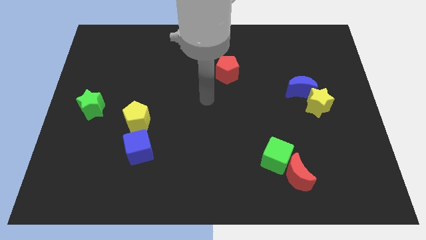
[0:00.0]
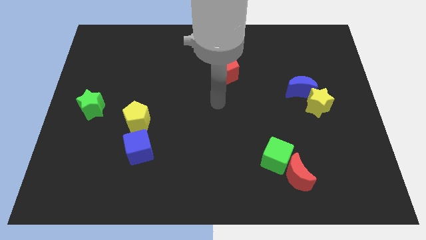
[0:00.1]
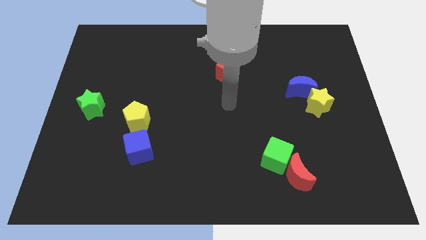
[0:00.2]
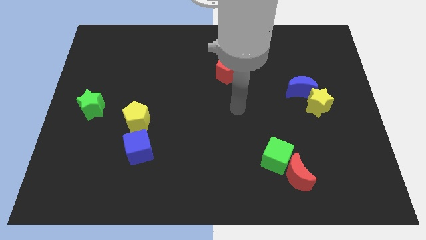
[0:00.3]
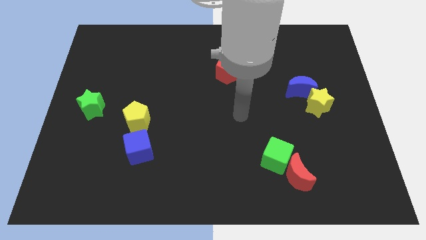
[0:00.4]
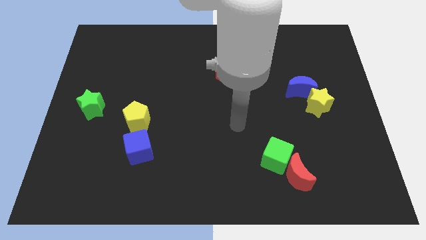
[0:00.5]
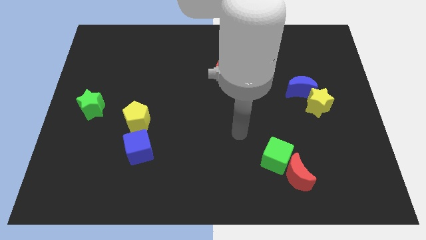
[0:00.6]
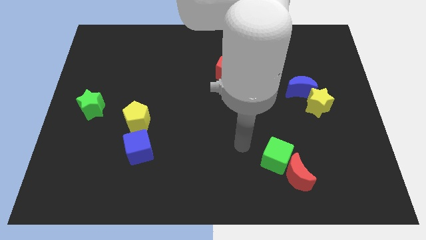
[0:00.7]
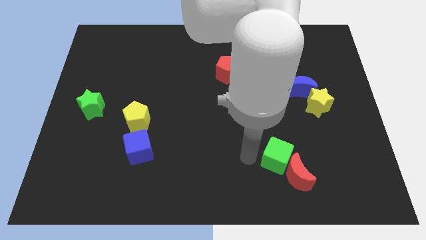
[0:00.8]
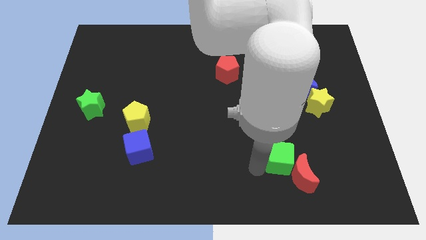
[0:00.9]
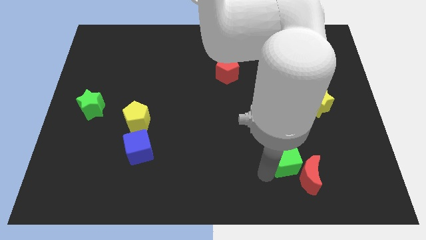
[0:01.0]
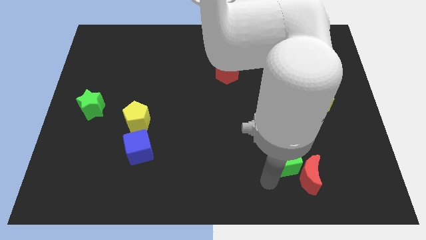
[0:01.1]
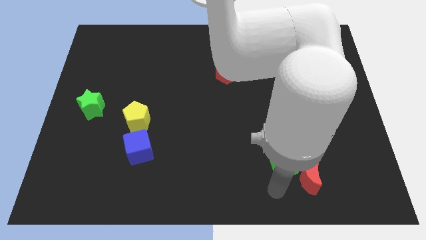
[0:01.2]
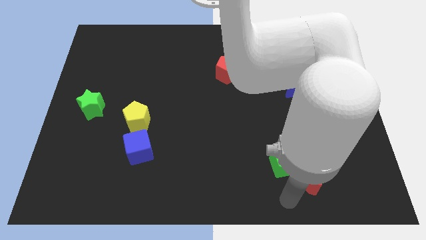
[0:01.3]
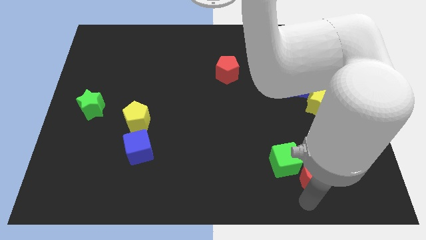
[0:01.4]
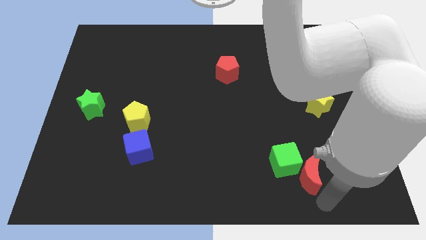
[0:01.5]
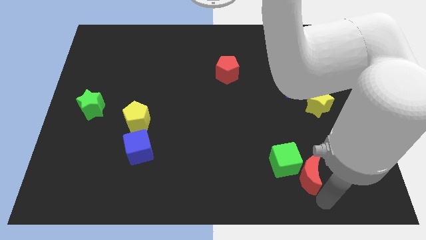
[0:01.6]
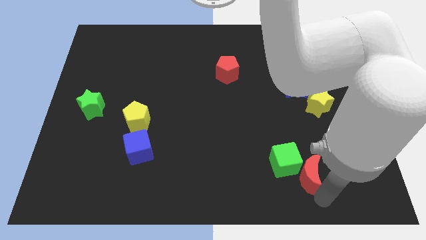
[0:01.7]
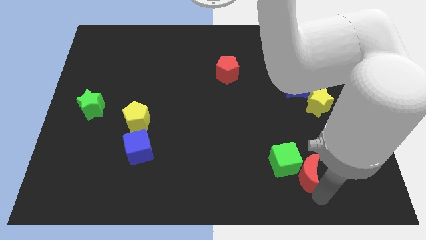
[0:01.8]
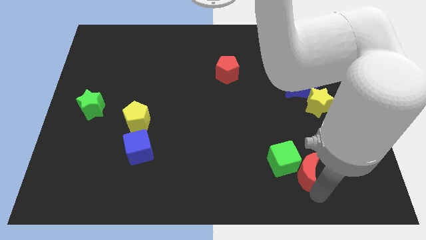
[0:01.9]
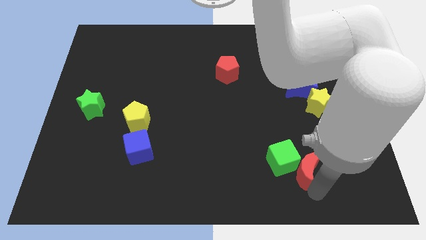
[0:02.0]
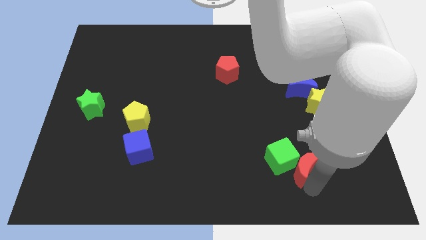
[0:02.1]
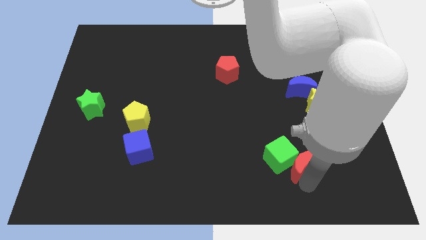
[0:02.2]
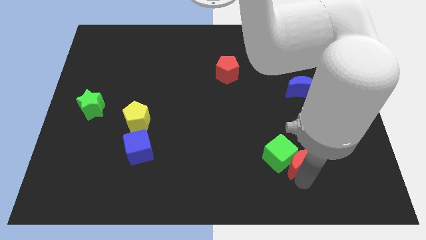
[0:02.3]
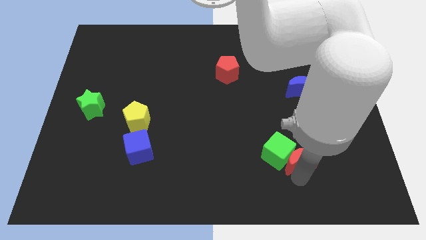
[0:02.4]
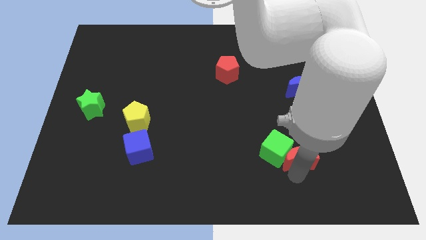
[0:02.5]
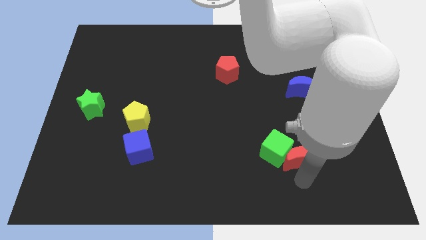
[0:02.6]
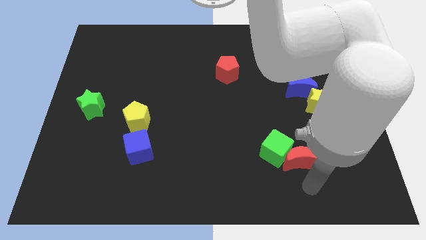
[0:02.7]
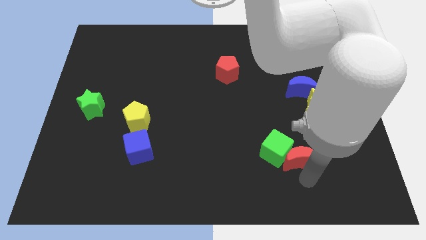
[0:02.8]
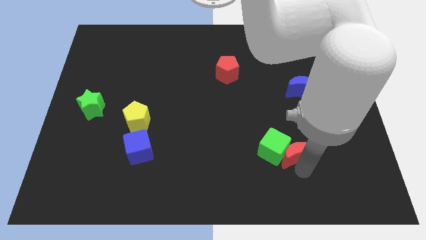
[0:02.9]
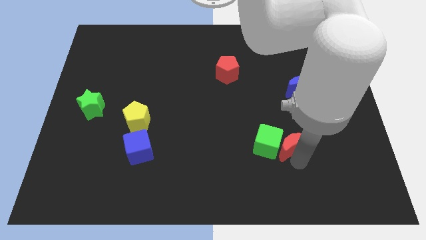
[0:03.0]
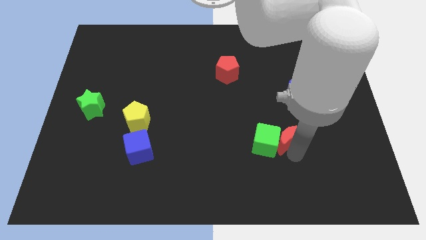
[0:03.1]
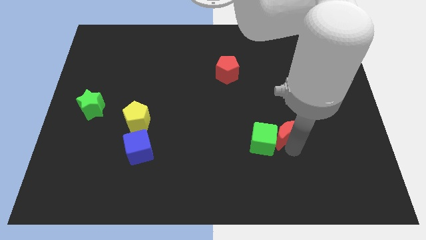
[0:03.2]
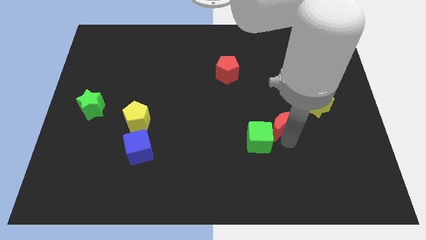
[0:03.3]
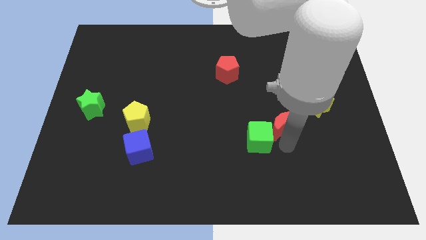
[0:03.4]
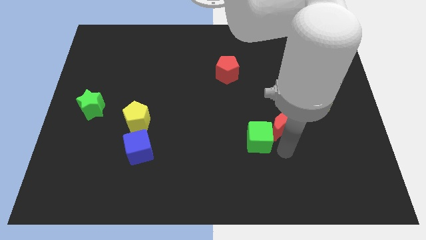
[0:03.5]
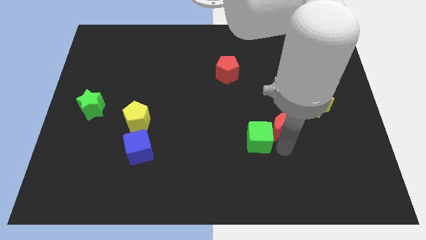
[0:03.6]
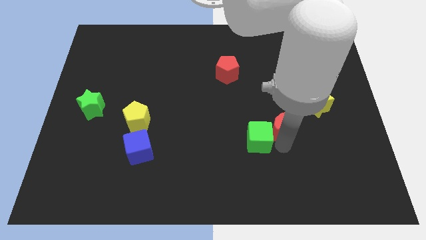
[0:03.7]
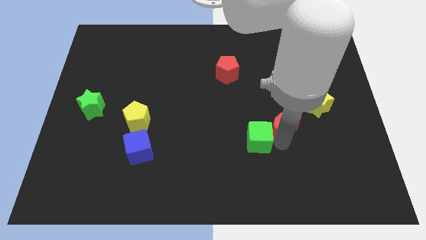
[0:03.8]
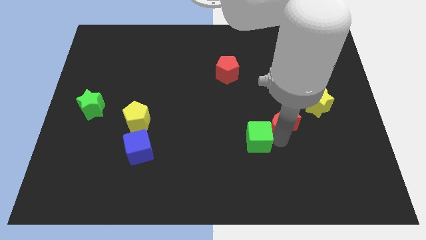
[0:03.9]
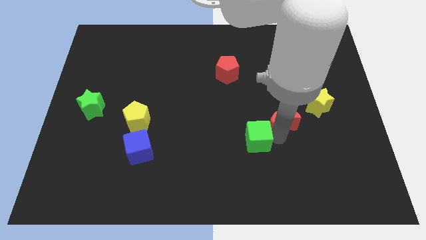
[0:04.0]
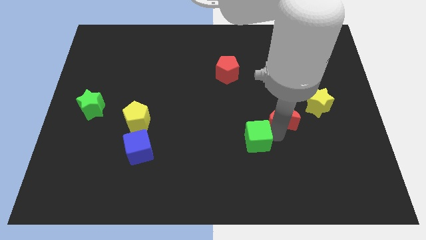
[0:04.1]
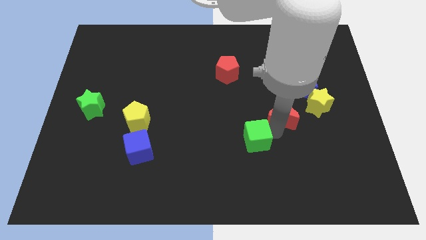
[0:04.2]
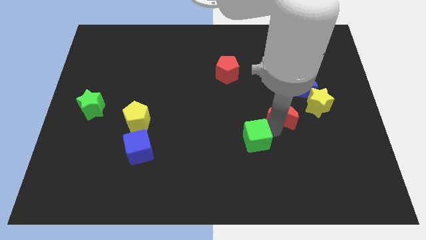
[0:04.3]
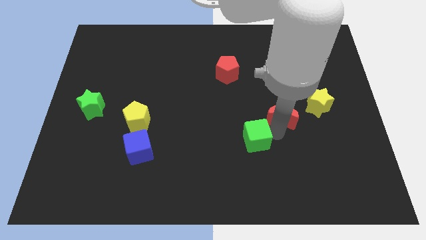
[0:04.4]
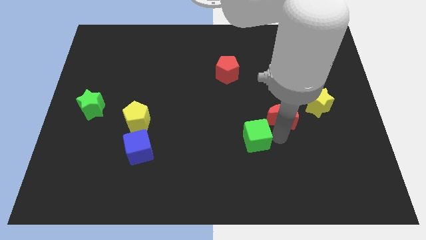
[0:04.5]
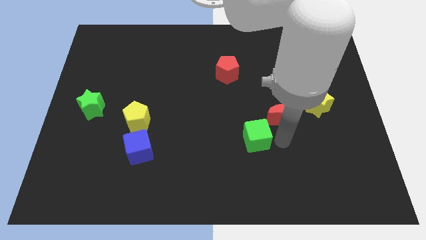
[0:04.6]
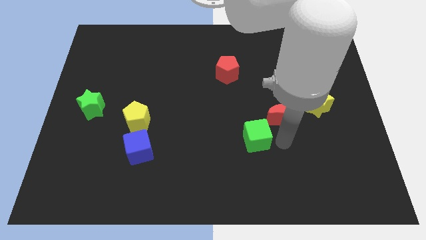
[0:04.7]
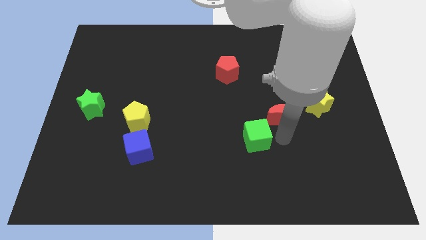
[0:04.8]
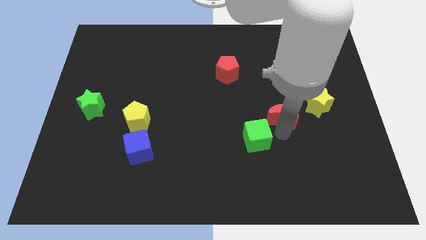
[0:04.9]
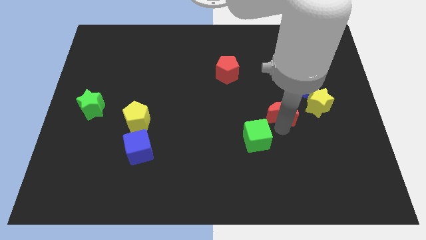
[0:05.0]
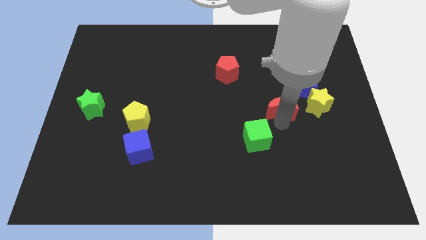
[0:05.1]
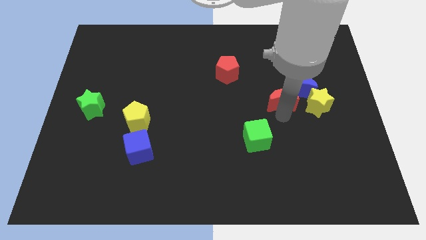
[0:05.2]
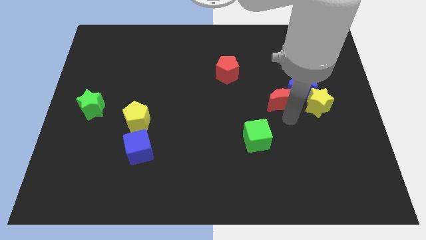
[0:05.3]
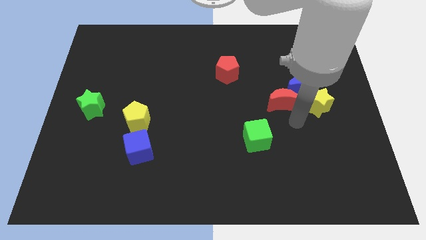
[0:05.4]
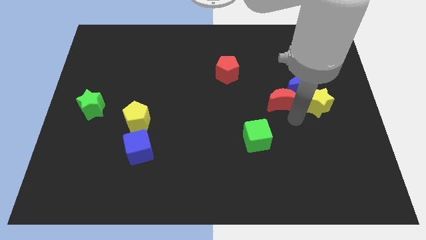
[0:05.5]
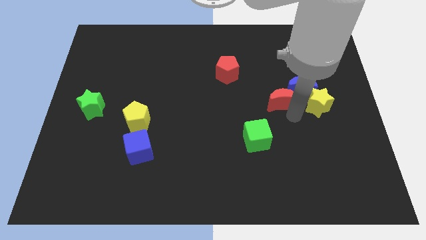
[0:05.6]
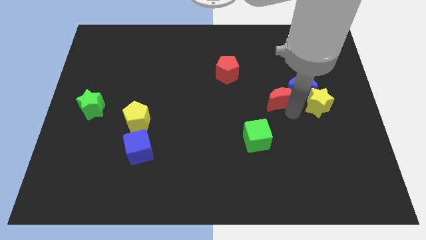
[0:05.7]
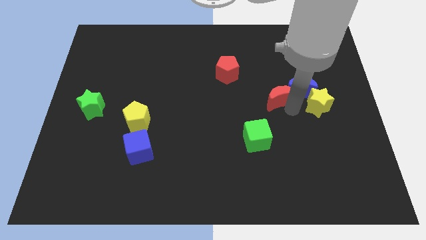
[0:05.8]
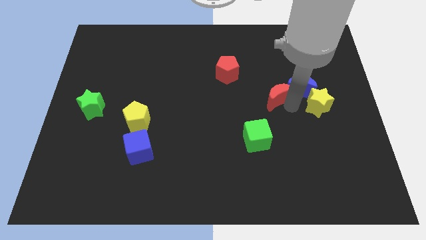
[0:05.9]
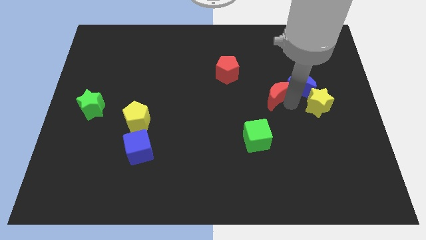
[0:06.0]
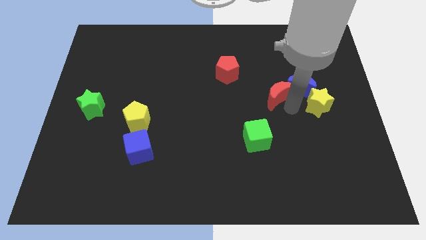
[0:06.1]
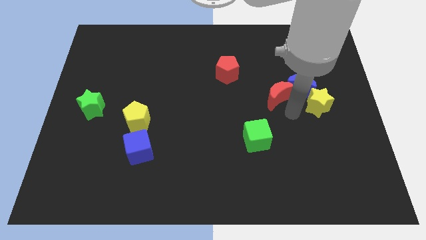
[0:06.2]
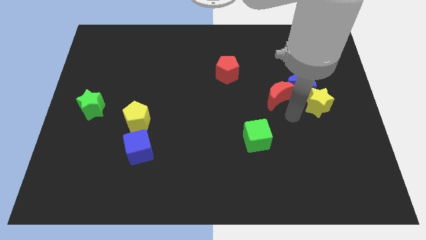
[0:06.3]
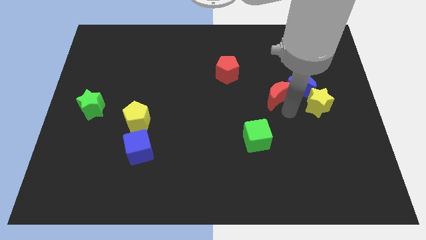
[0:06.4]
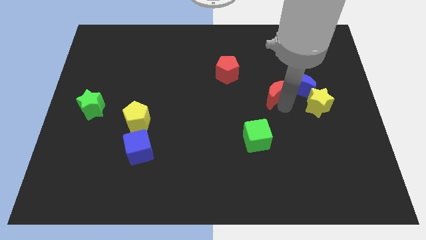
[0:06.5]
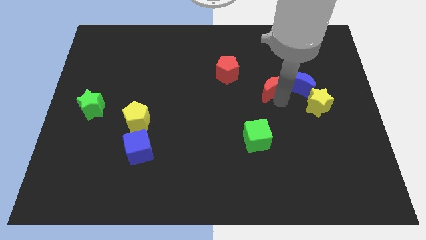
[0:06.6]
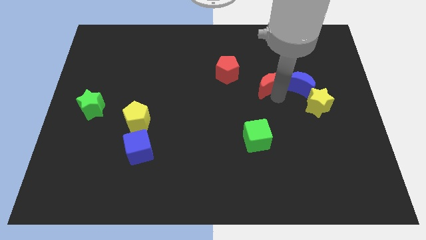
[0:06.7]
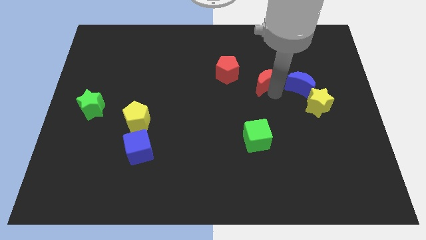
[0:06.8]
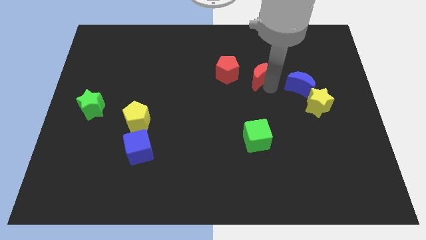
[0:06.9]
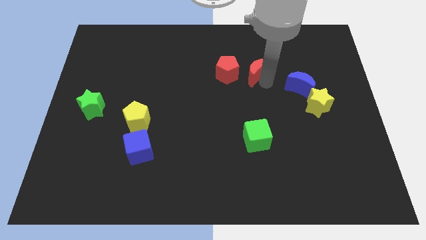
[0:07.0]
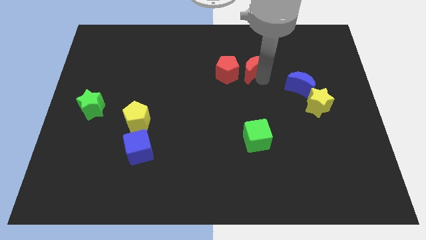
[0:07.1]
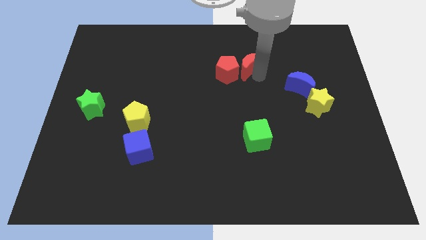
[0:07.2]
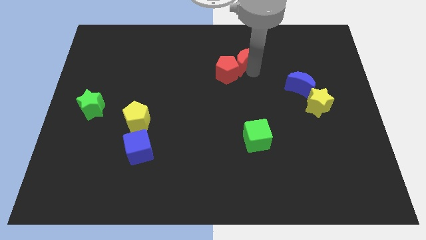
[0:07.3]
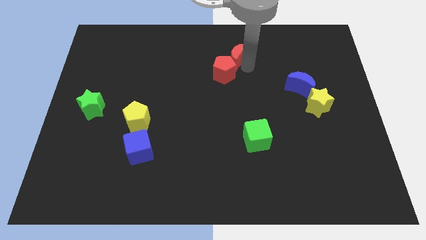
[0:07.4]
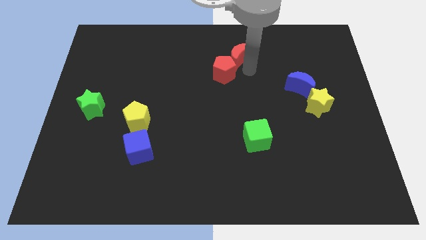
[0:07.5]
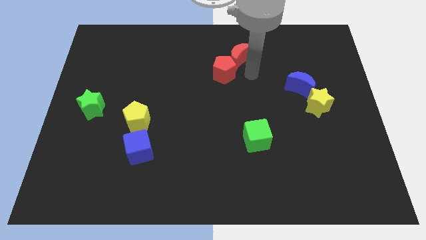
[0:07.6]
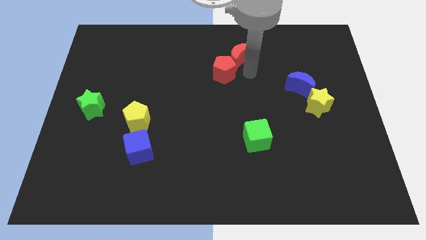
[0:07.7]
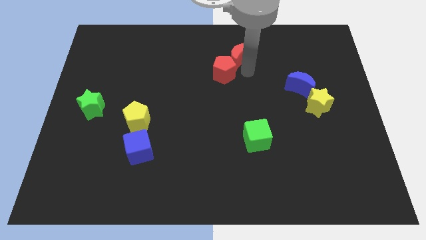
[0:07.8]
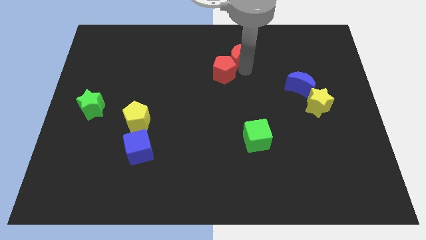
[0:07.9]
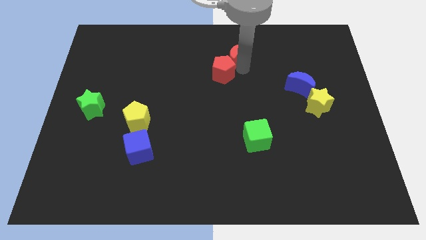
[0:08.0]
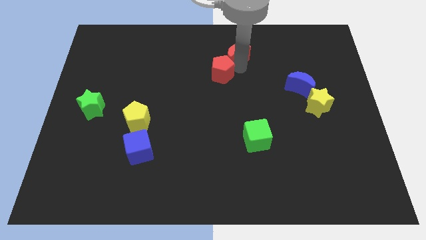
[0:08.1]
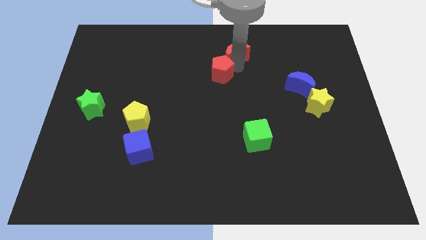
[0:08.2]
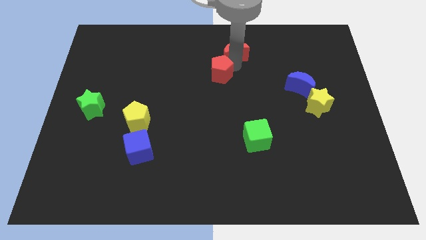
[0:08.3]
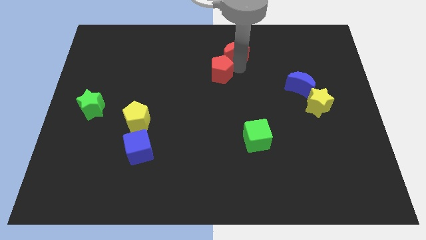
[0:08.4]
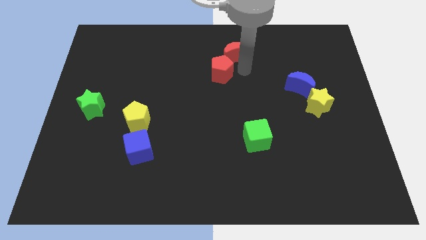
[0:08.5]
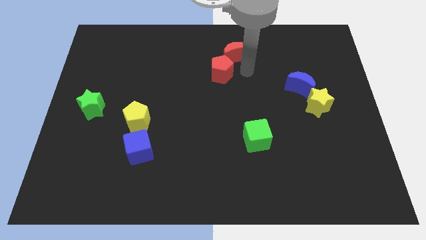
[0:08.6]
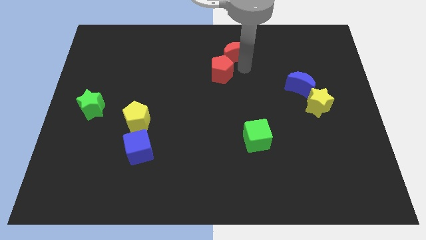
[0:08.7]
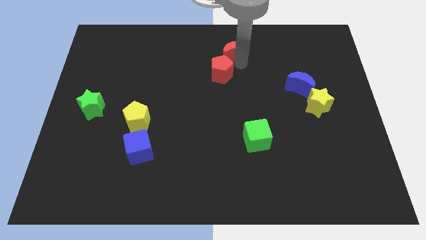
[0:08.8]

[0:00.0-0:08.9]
slide the red moon to the towards your base
